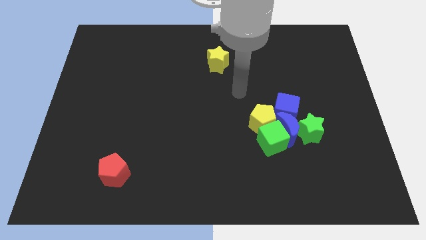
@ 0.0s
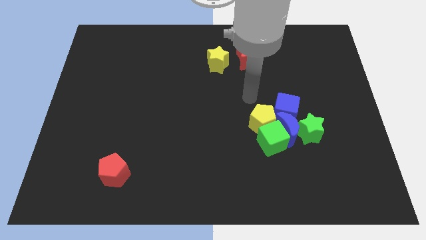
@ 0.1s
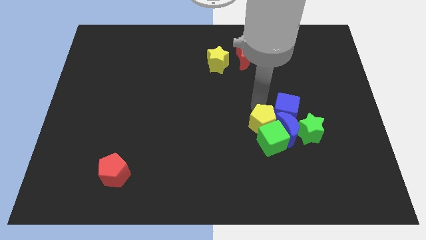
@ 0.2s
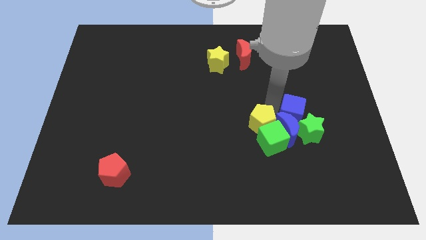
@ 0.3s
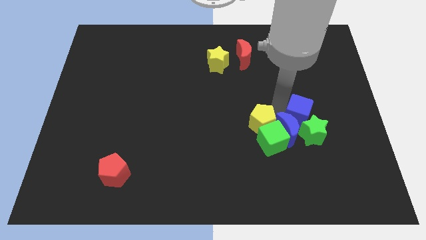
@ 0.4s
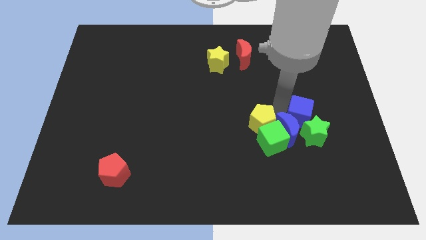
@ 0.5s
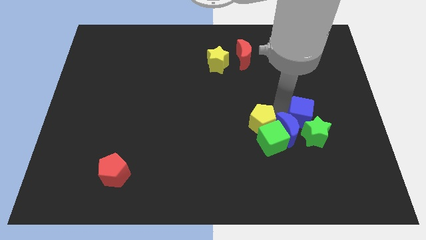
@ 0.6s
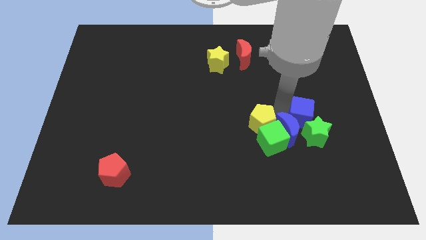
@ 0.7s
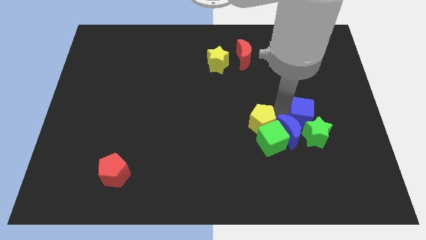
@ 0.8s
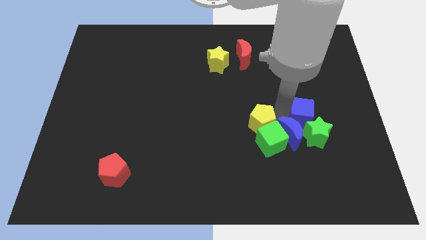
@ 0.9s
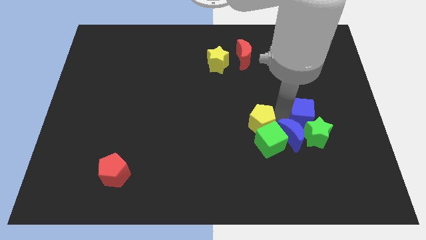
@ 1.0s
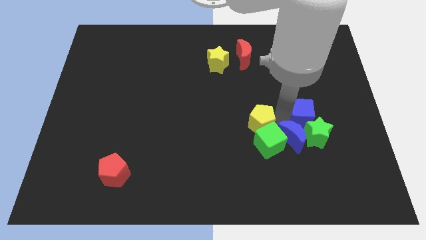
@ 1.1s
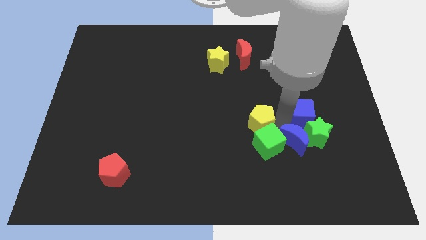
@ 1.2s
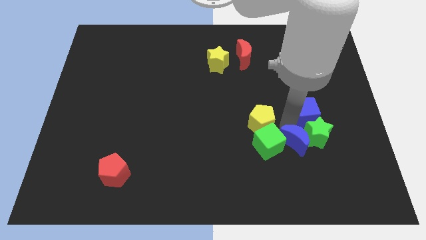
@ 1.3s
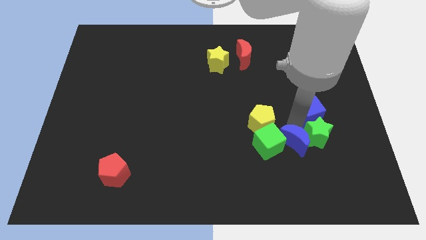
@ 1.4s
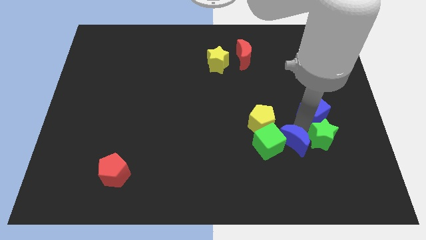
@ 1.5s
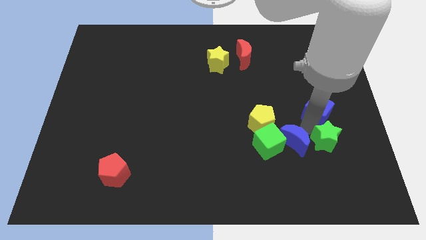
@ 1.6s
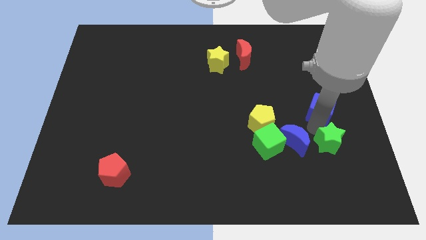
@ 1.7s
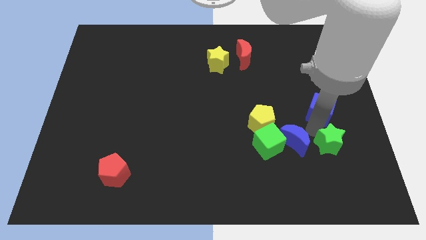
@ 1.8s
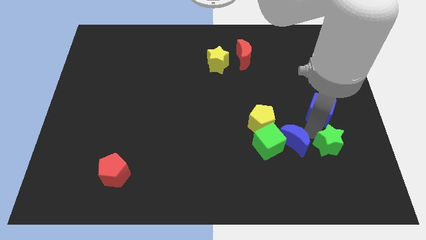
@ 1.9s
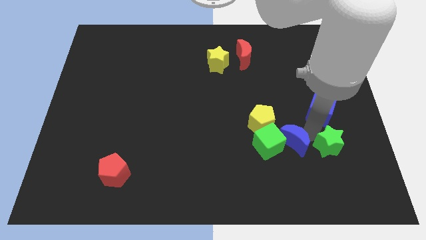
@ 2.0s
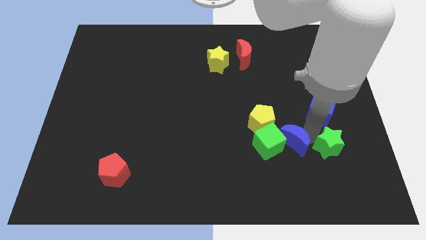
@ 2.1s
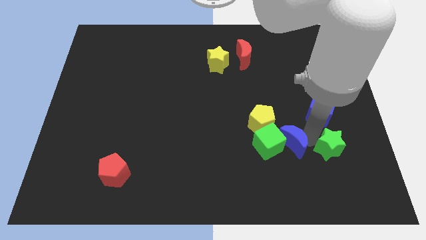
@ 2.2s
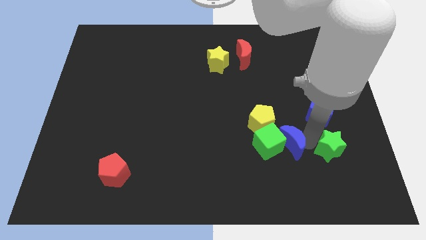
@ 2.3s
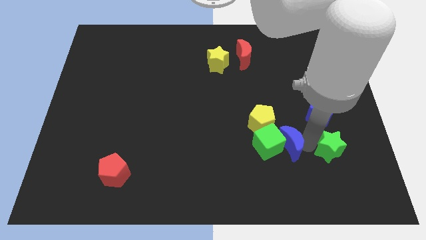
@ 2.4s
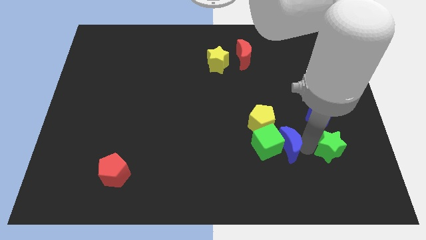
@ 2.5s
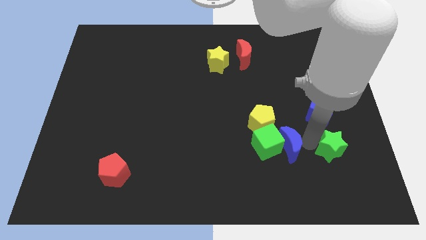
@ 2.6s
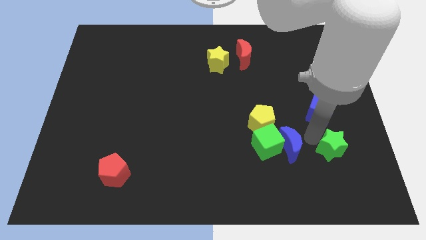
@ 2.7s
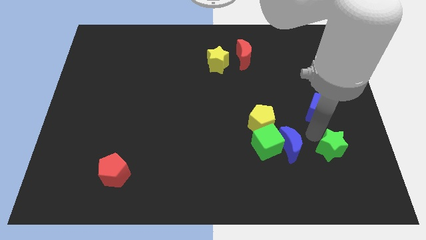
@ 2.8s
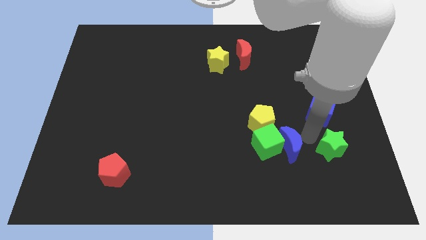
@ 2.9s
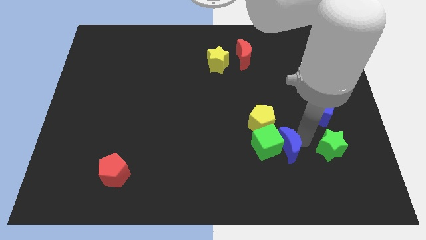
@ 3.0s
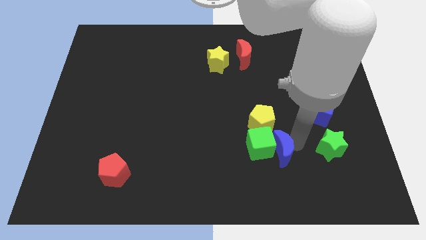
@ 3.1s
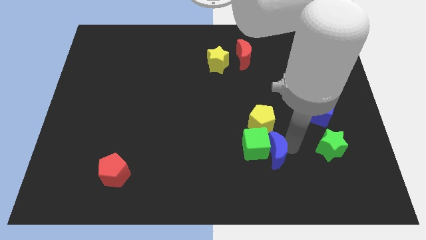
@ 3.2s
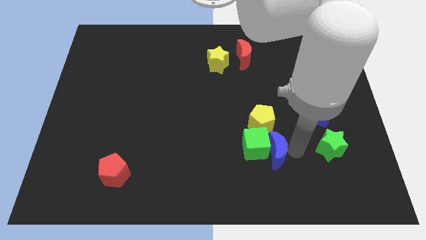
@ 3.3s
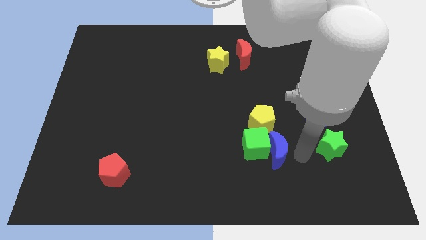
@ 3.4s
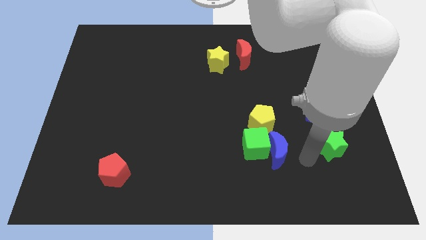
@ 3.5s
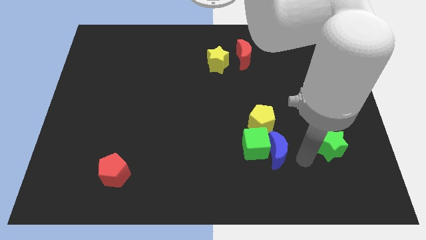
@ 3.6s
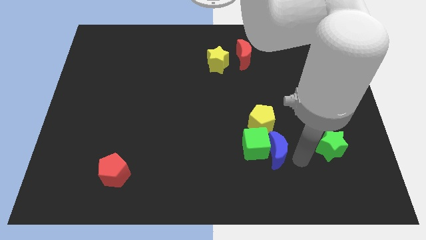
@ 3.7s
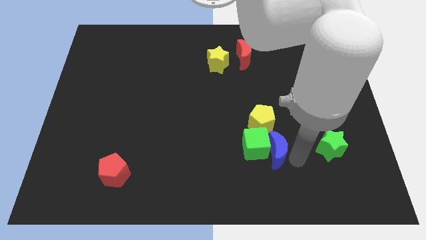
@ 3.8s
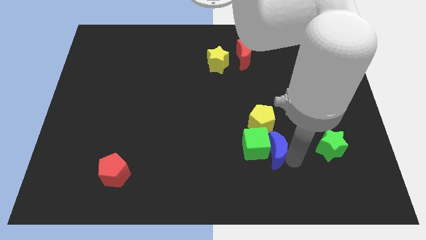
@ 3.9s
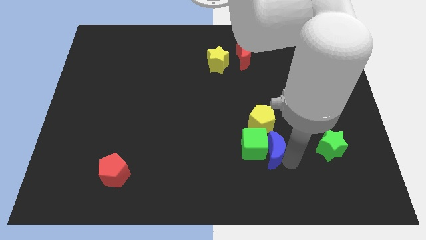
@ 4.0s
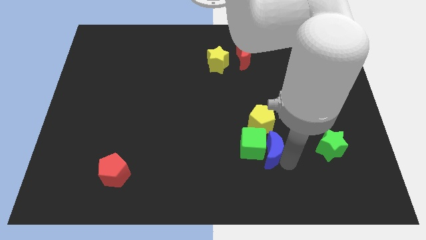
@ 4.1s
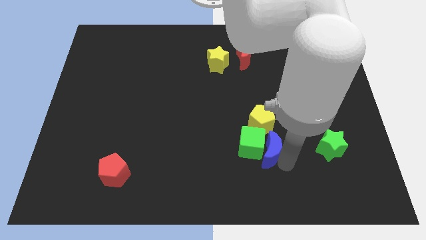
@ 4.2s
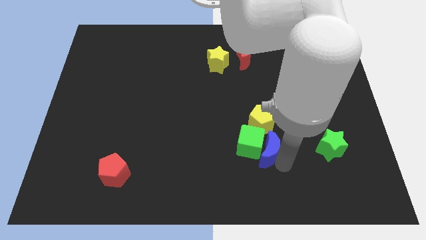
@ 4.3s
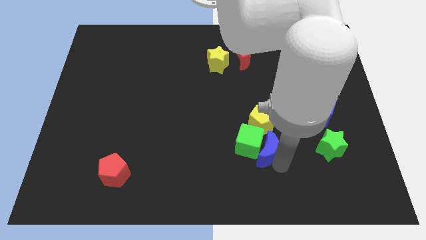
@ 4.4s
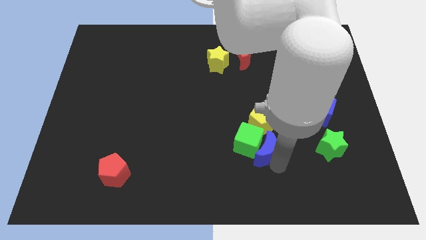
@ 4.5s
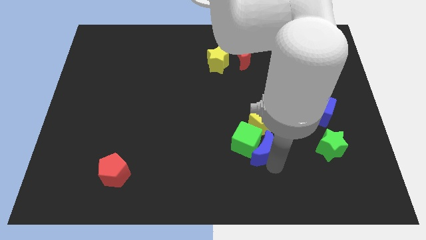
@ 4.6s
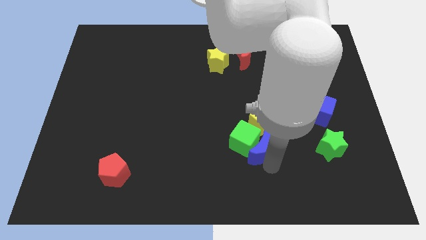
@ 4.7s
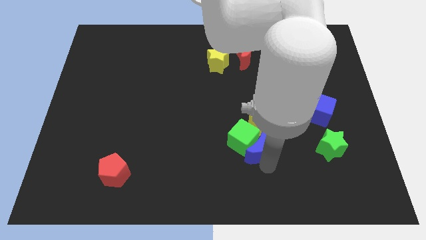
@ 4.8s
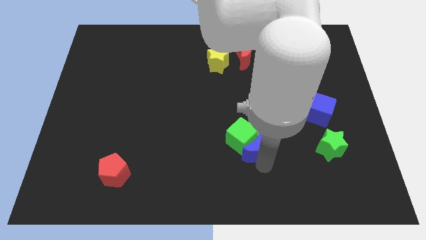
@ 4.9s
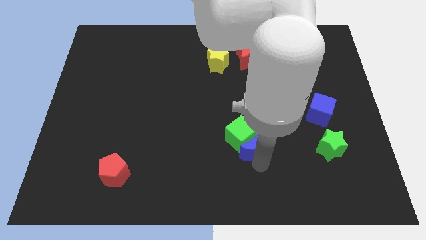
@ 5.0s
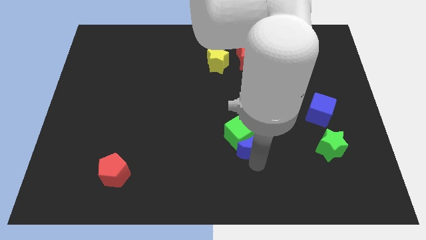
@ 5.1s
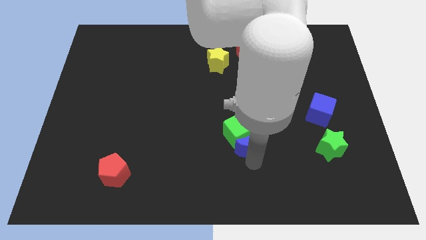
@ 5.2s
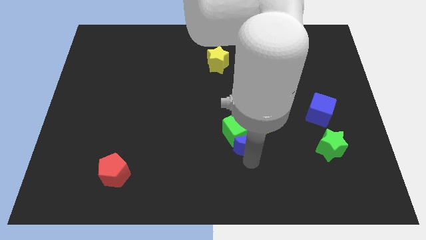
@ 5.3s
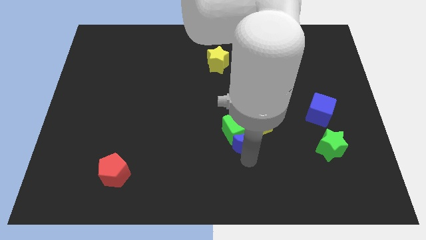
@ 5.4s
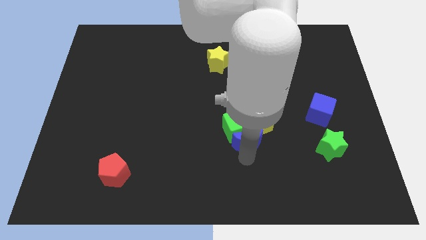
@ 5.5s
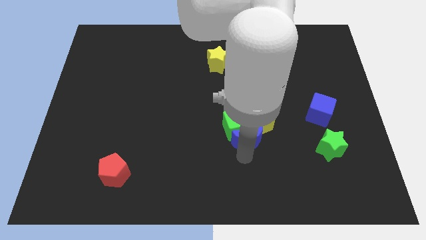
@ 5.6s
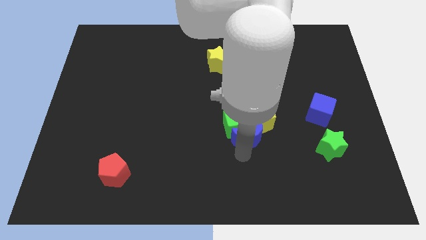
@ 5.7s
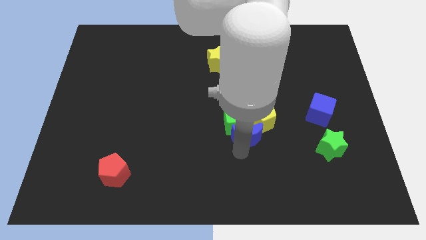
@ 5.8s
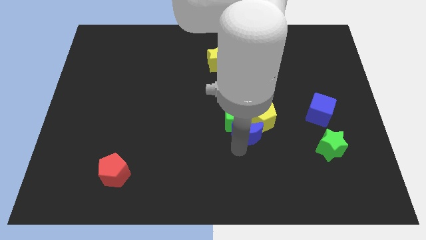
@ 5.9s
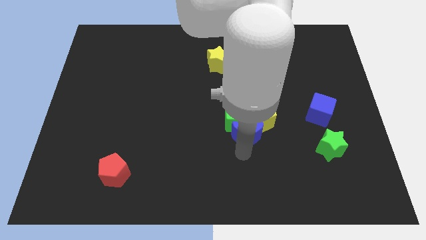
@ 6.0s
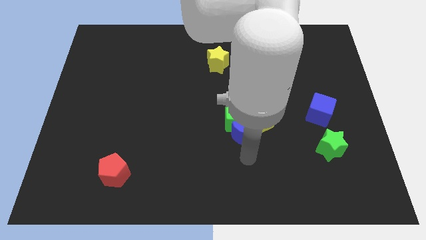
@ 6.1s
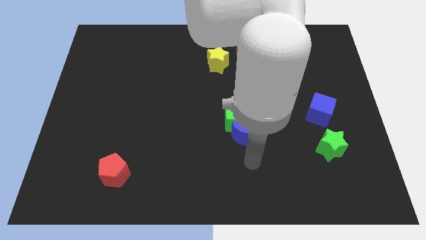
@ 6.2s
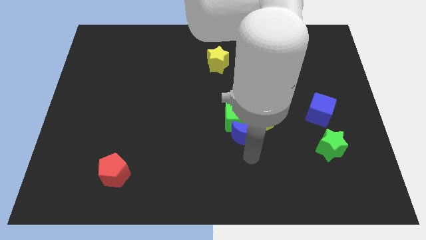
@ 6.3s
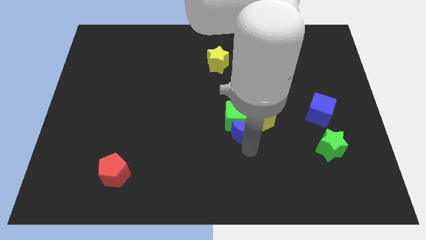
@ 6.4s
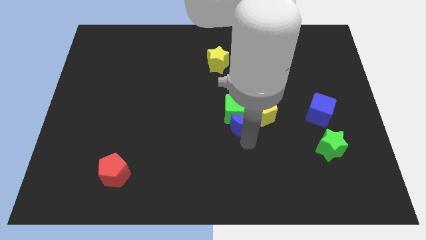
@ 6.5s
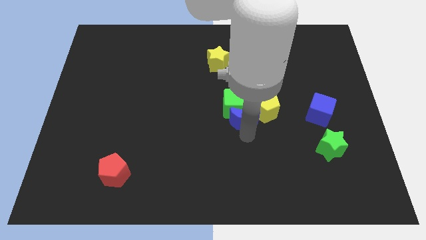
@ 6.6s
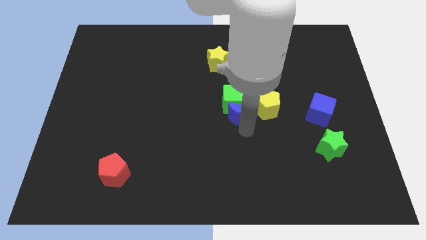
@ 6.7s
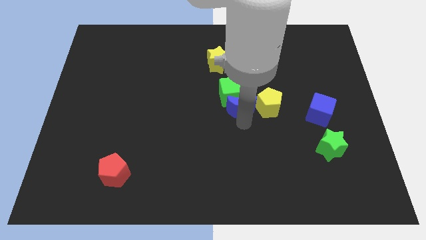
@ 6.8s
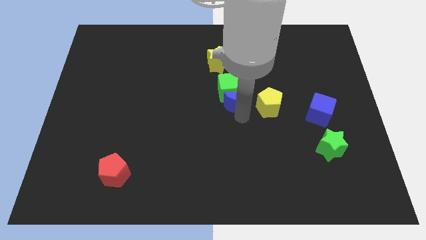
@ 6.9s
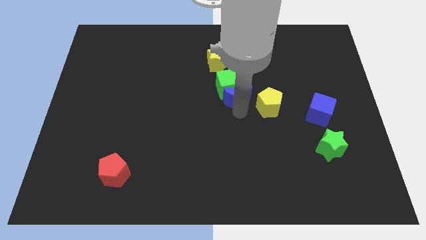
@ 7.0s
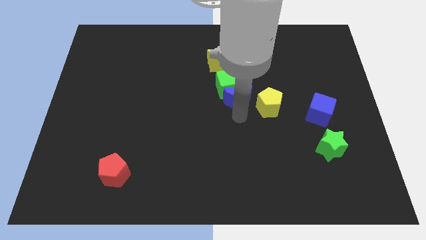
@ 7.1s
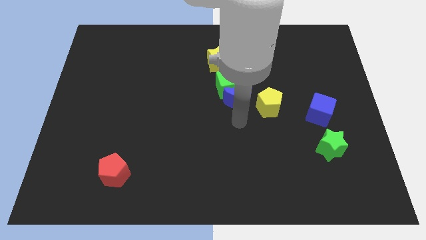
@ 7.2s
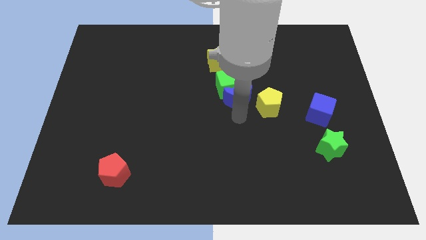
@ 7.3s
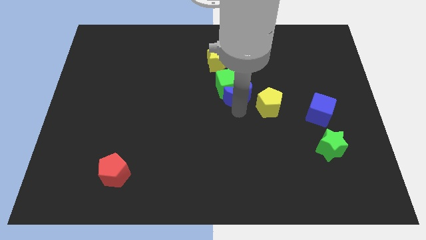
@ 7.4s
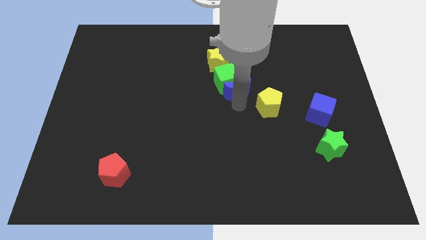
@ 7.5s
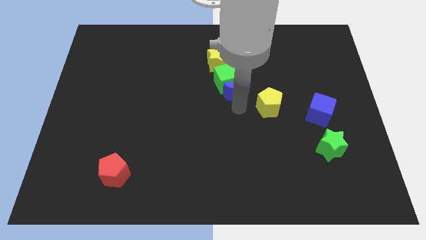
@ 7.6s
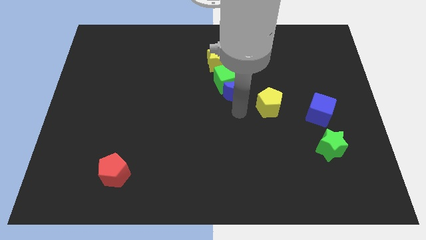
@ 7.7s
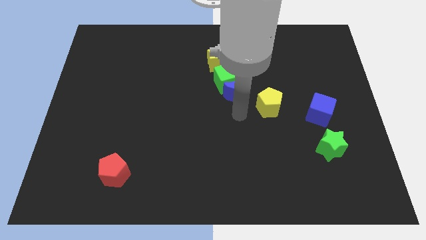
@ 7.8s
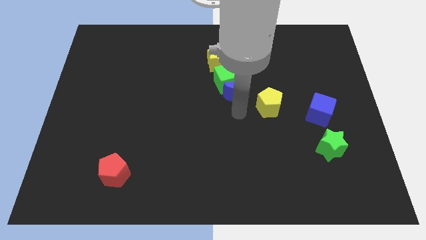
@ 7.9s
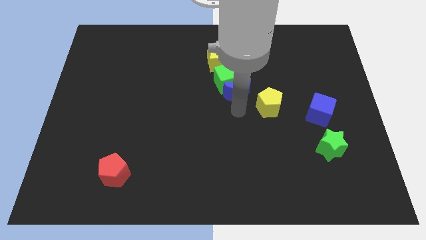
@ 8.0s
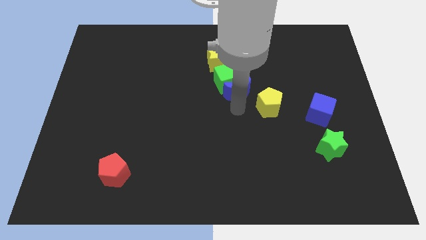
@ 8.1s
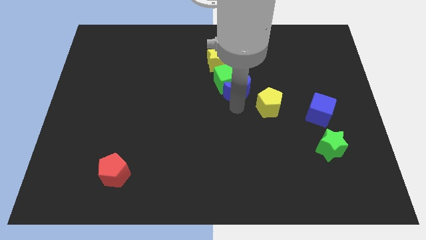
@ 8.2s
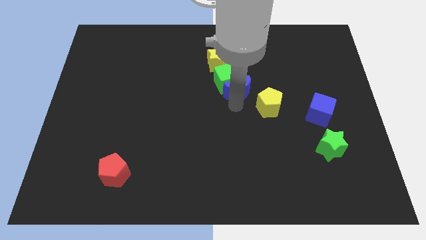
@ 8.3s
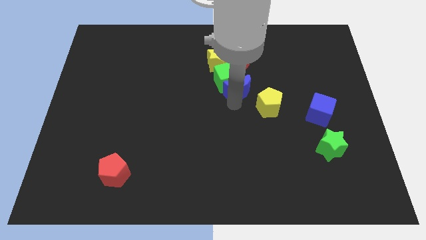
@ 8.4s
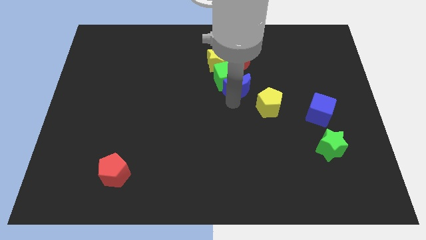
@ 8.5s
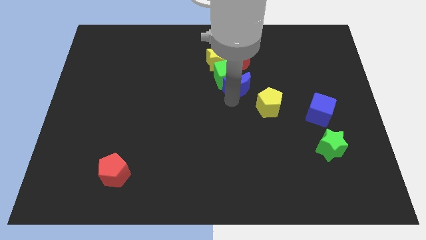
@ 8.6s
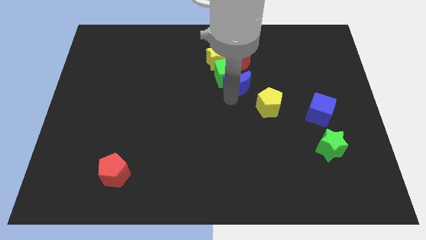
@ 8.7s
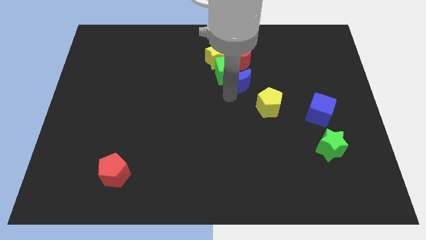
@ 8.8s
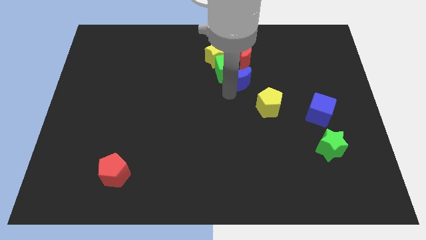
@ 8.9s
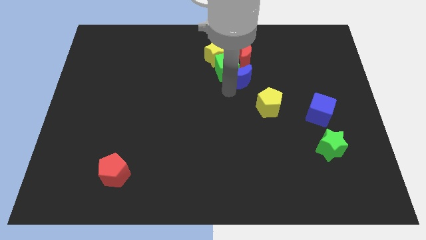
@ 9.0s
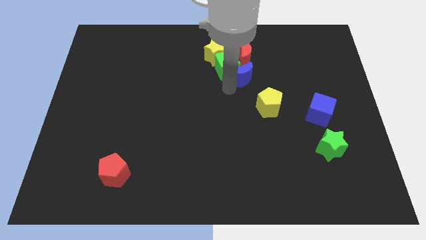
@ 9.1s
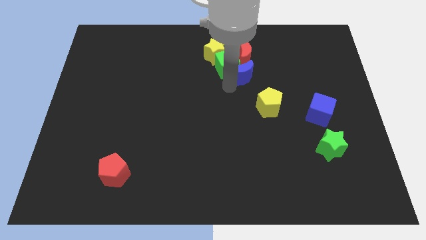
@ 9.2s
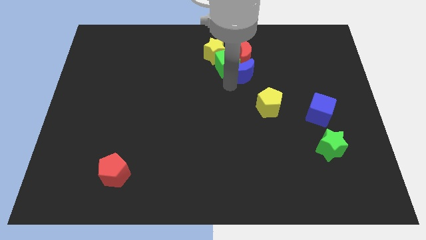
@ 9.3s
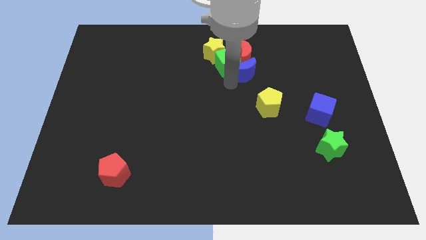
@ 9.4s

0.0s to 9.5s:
move the blue moon next to the red moon
